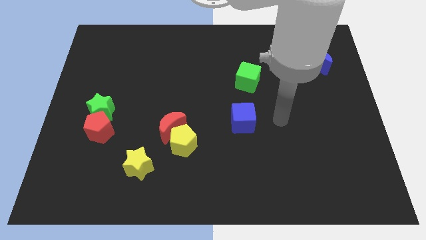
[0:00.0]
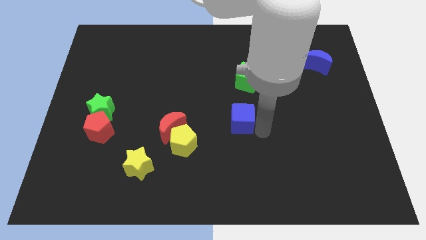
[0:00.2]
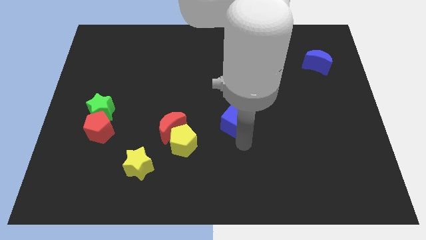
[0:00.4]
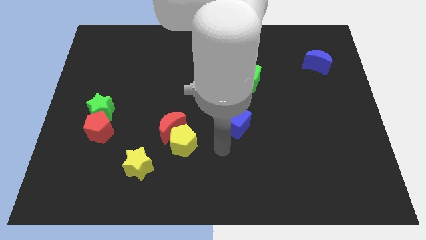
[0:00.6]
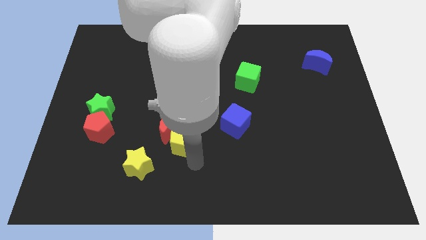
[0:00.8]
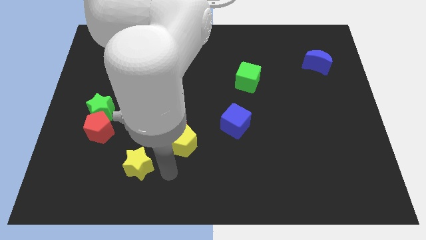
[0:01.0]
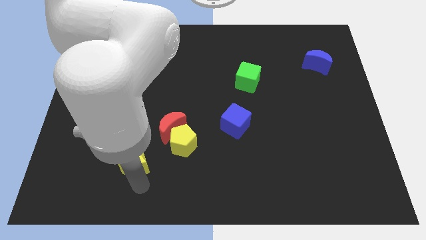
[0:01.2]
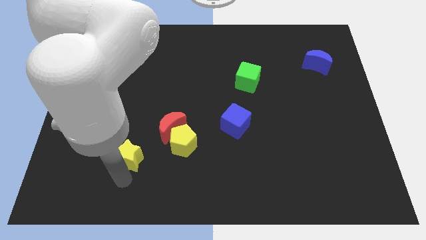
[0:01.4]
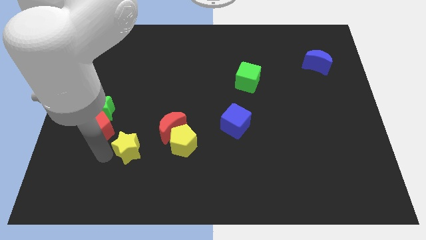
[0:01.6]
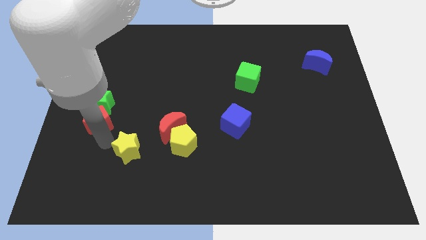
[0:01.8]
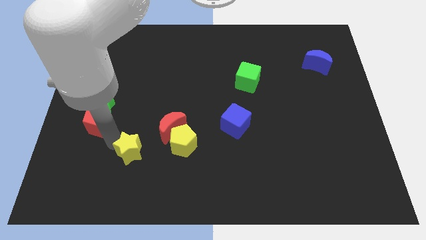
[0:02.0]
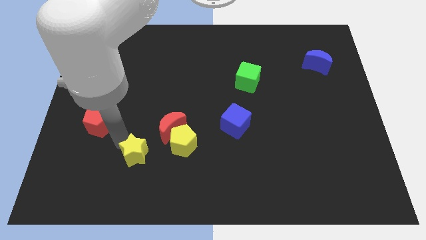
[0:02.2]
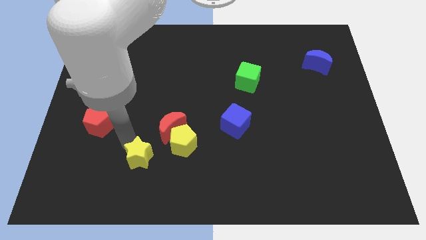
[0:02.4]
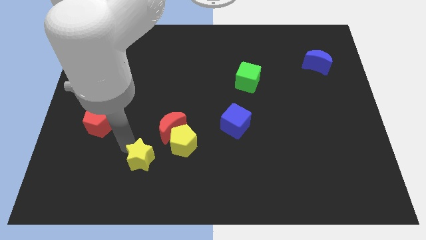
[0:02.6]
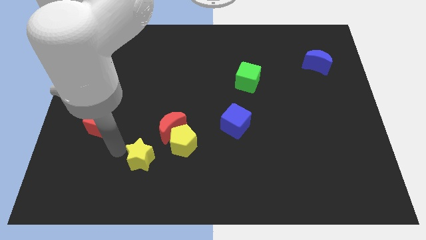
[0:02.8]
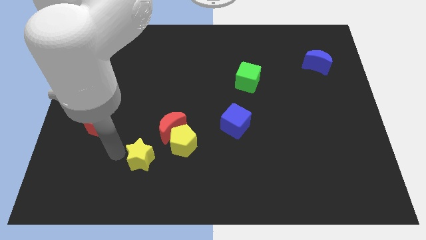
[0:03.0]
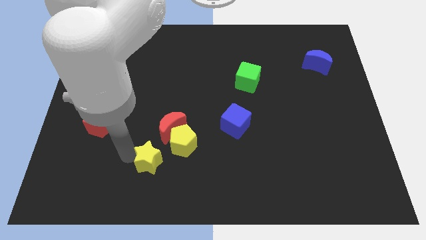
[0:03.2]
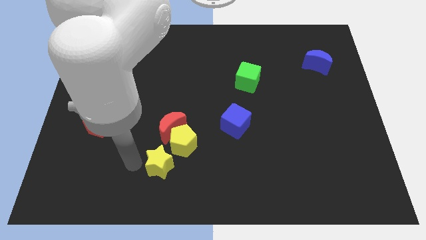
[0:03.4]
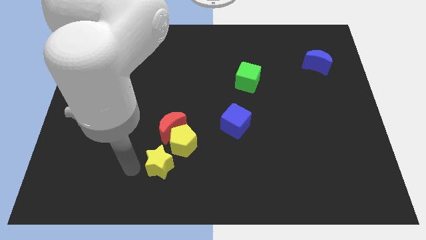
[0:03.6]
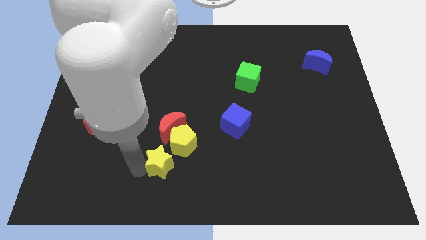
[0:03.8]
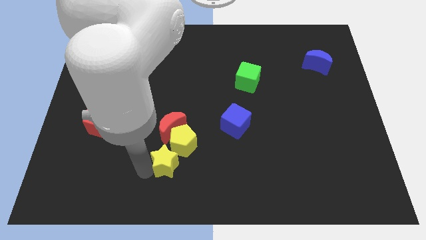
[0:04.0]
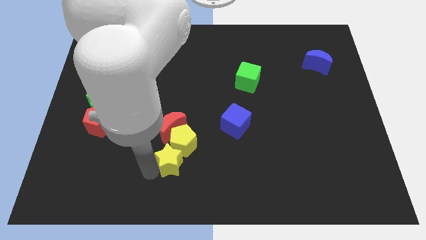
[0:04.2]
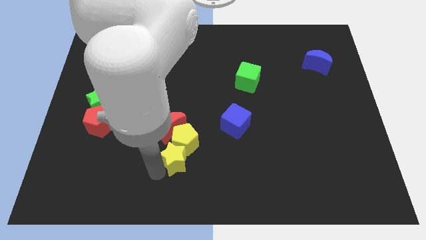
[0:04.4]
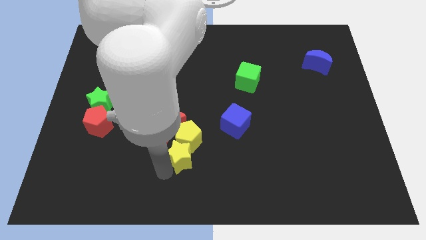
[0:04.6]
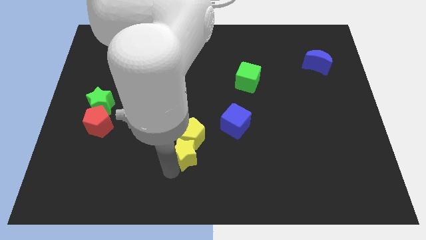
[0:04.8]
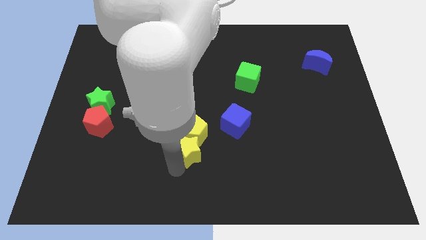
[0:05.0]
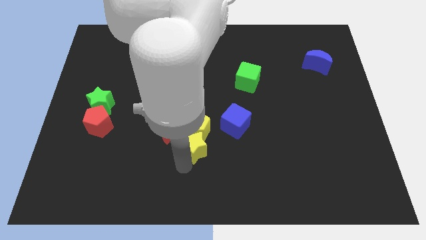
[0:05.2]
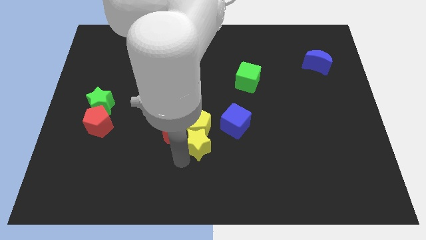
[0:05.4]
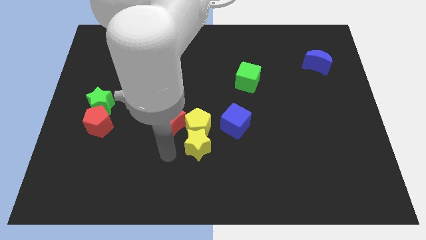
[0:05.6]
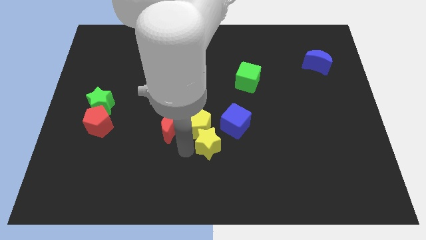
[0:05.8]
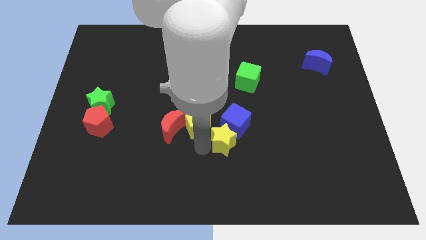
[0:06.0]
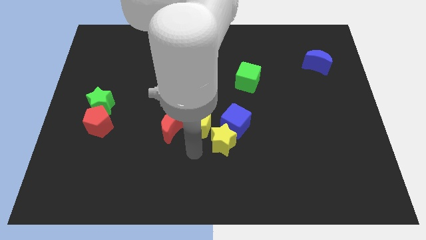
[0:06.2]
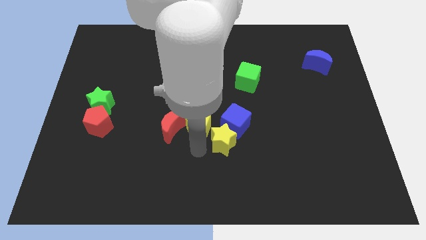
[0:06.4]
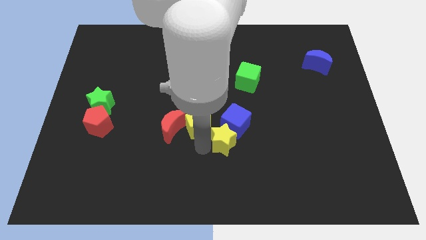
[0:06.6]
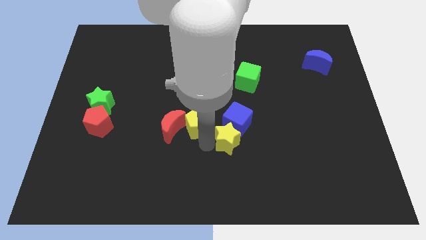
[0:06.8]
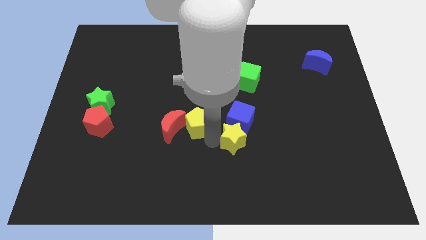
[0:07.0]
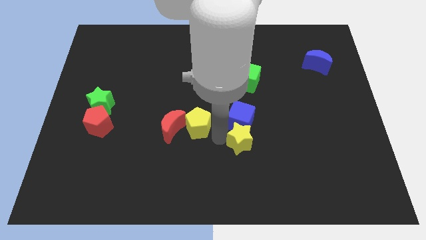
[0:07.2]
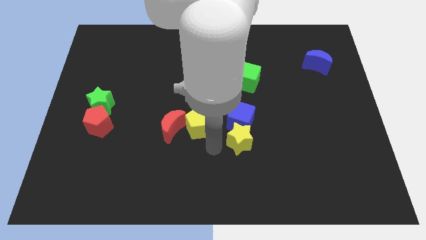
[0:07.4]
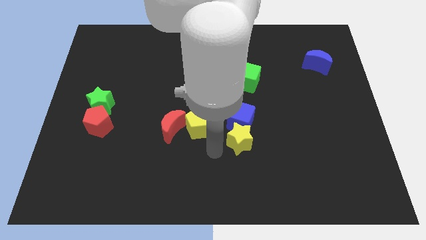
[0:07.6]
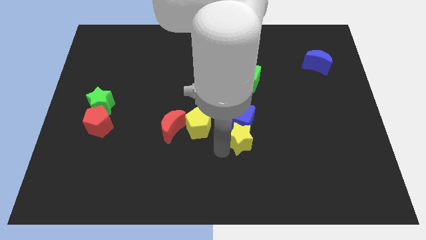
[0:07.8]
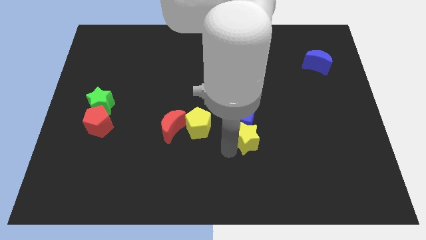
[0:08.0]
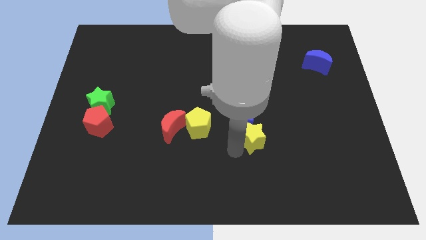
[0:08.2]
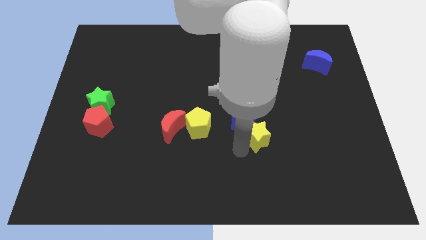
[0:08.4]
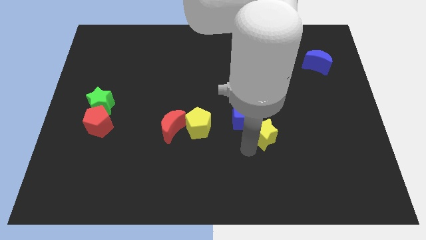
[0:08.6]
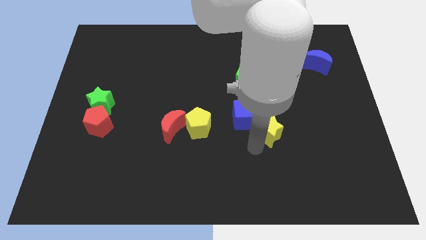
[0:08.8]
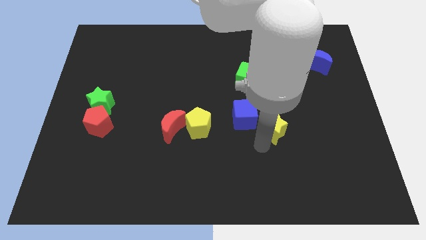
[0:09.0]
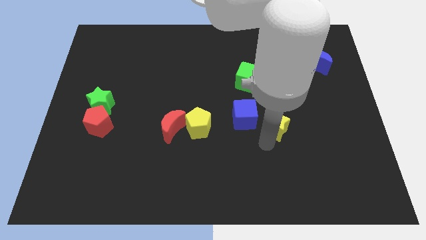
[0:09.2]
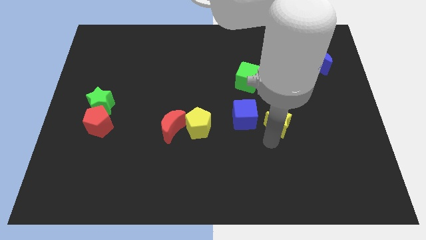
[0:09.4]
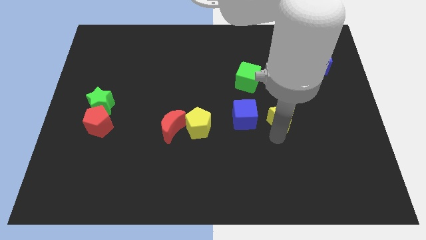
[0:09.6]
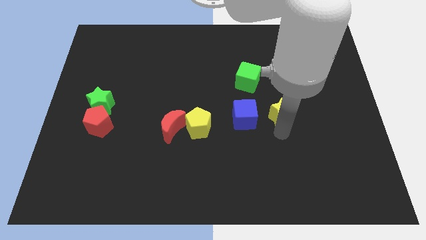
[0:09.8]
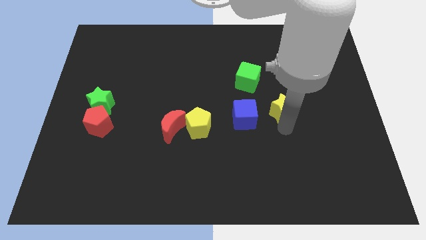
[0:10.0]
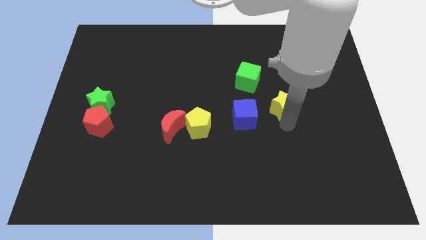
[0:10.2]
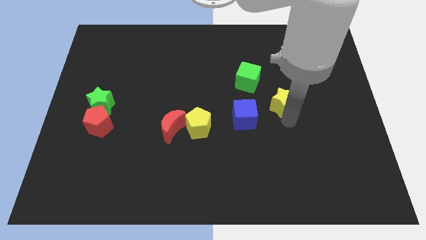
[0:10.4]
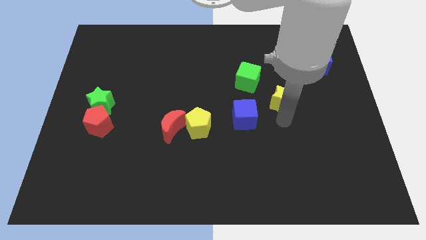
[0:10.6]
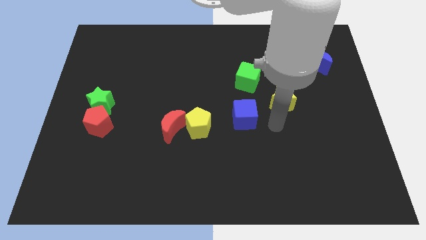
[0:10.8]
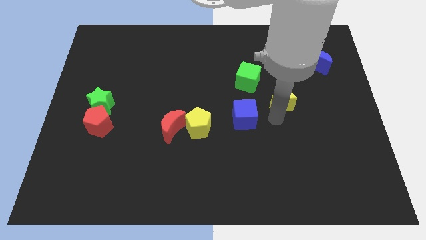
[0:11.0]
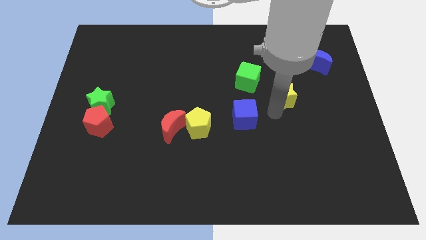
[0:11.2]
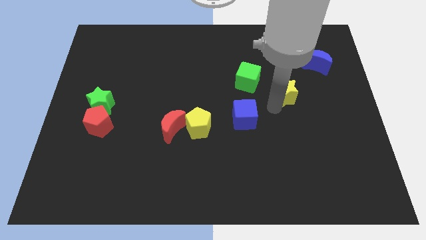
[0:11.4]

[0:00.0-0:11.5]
move the yellow star to the right of the green cube

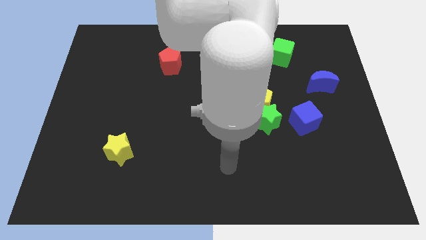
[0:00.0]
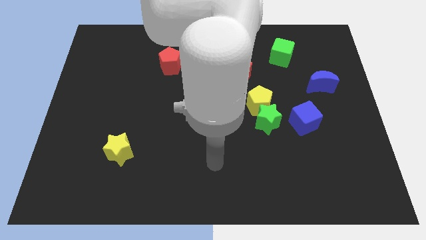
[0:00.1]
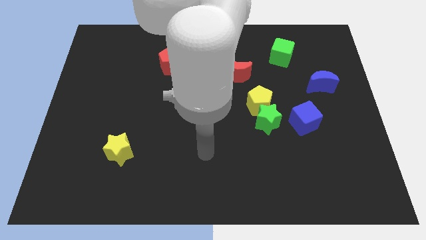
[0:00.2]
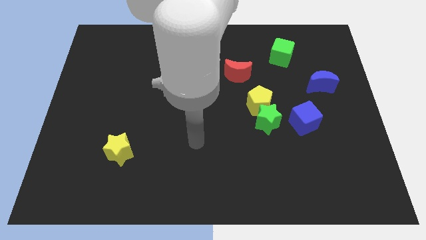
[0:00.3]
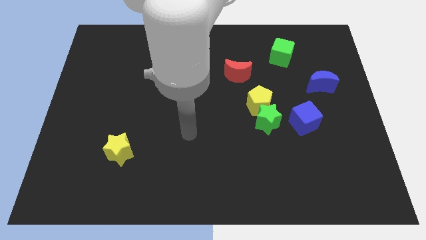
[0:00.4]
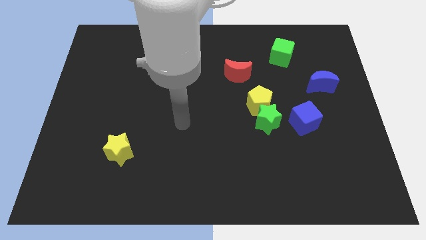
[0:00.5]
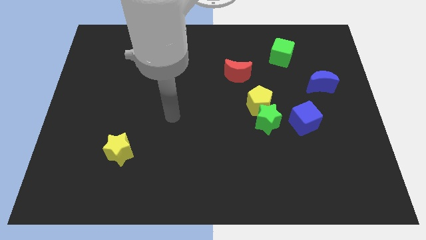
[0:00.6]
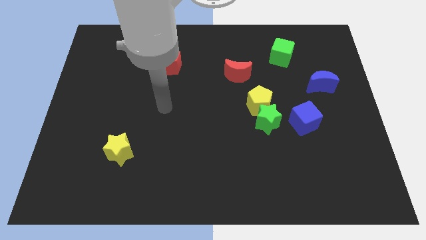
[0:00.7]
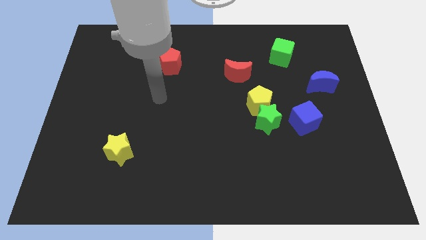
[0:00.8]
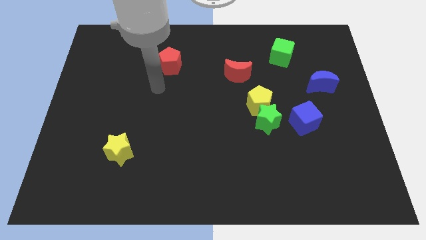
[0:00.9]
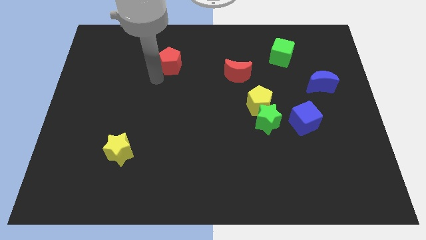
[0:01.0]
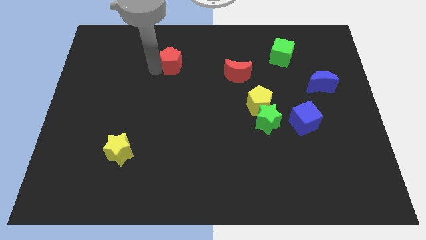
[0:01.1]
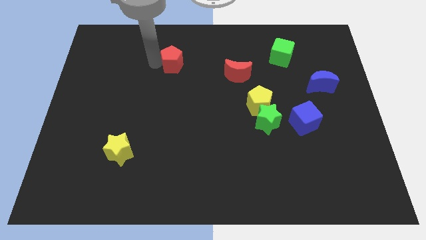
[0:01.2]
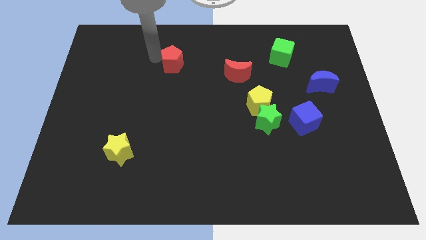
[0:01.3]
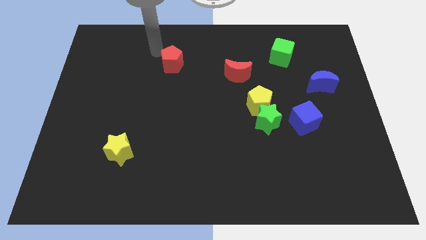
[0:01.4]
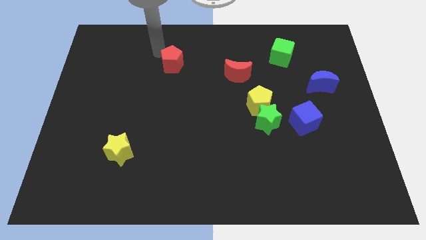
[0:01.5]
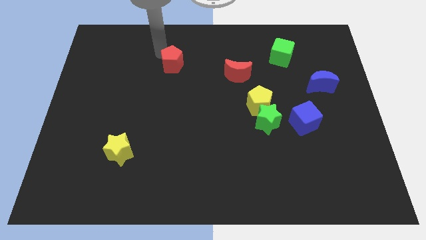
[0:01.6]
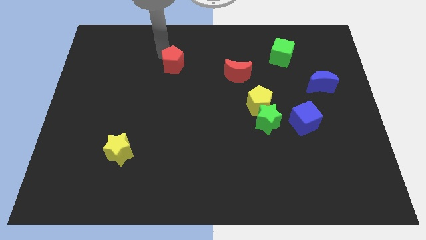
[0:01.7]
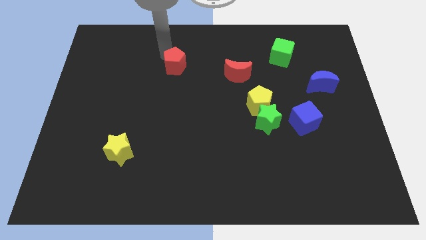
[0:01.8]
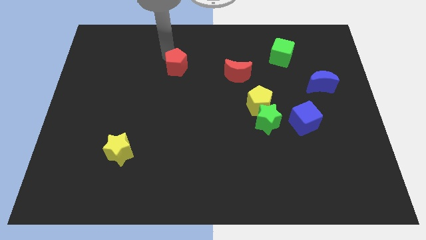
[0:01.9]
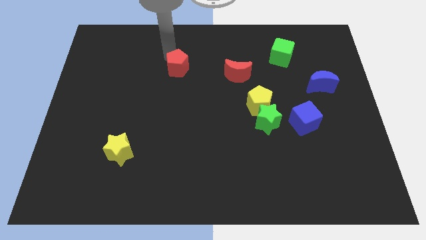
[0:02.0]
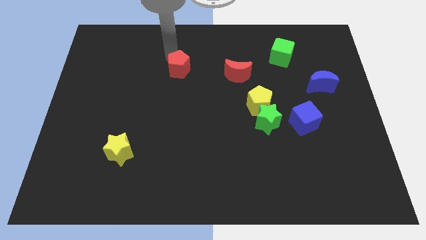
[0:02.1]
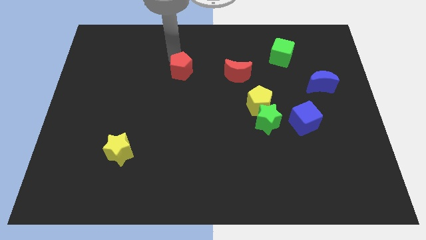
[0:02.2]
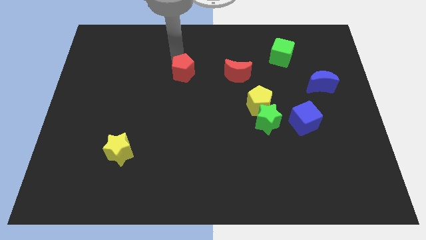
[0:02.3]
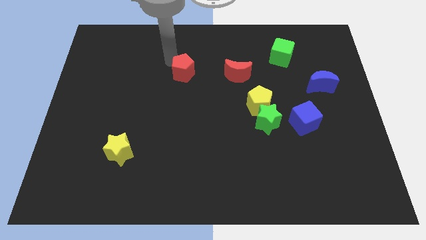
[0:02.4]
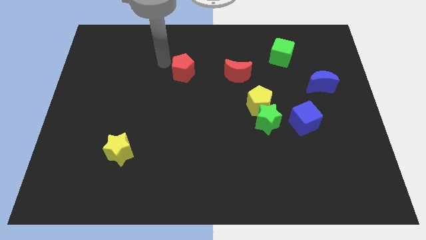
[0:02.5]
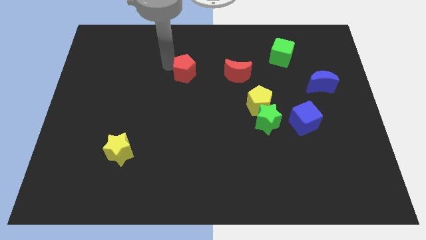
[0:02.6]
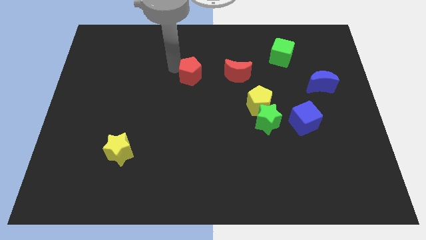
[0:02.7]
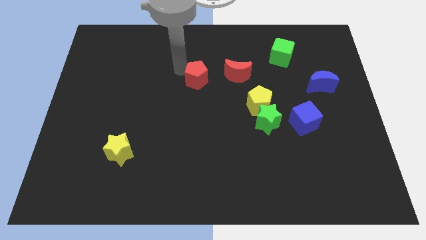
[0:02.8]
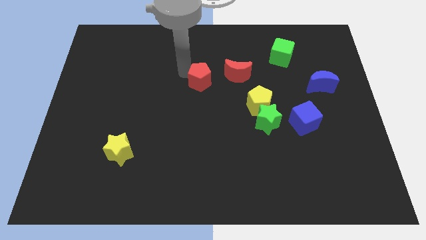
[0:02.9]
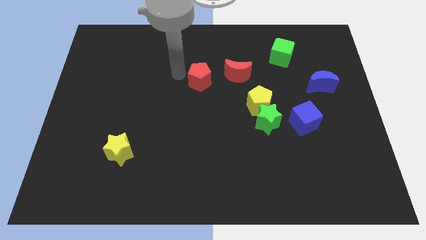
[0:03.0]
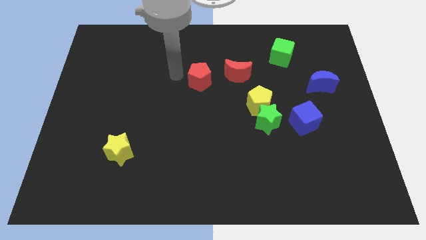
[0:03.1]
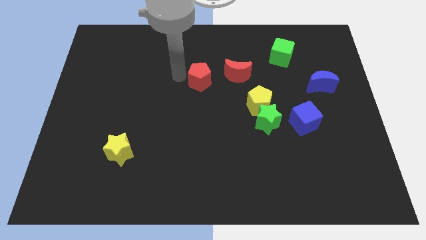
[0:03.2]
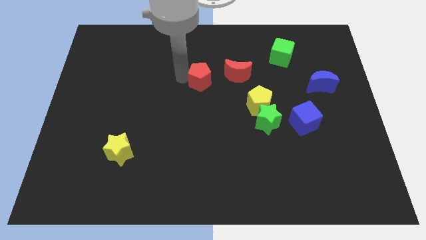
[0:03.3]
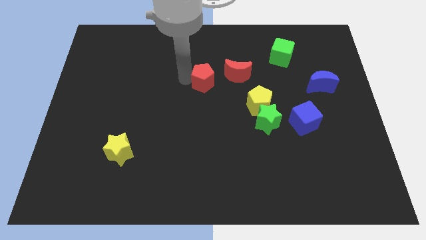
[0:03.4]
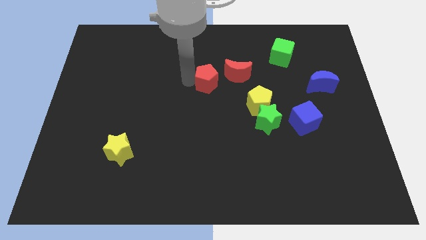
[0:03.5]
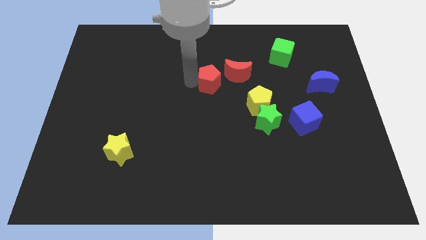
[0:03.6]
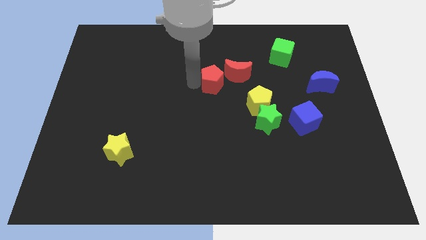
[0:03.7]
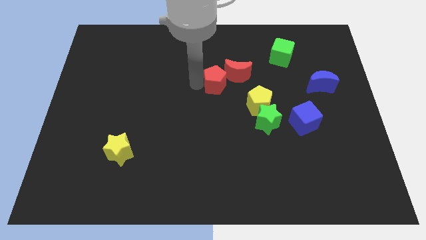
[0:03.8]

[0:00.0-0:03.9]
put the red pentagon to the top left side of the yellow pentagon
